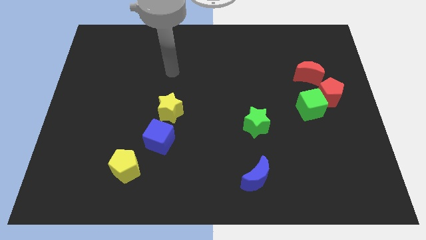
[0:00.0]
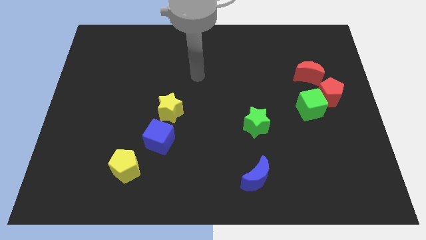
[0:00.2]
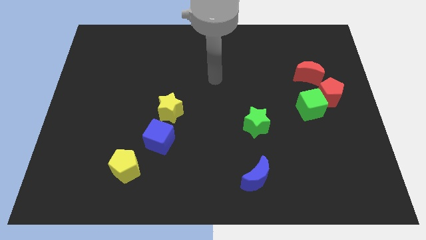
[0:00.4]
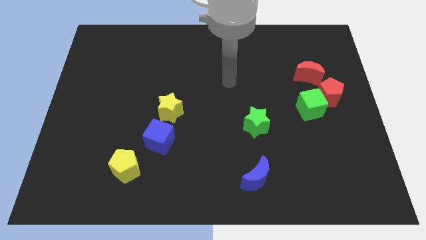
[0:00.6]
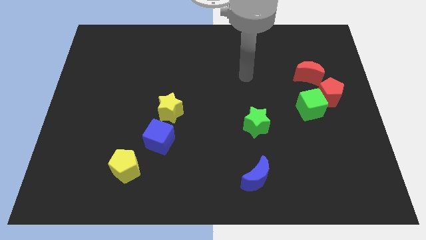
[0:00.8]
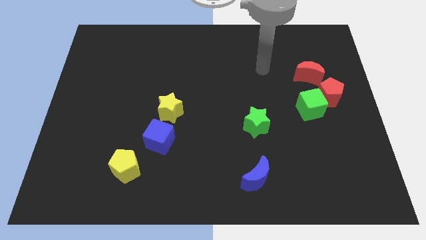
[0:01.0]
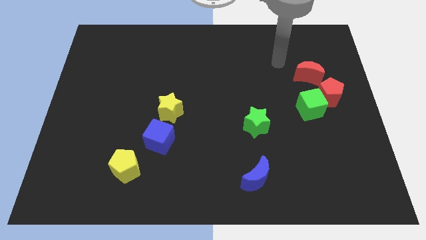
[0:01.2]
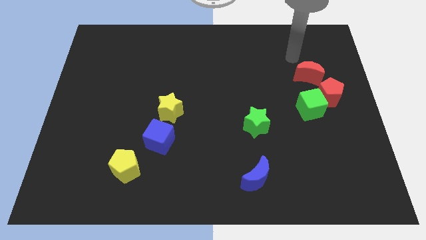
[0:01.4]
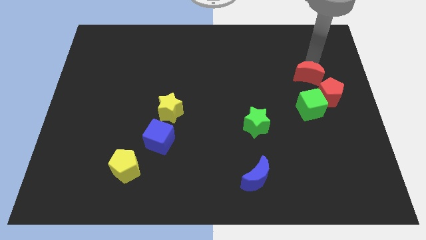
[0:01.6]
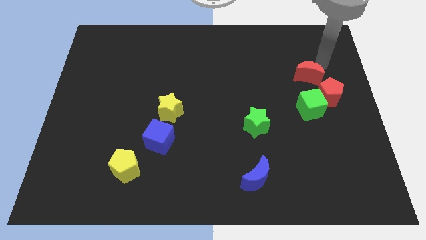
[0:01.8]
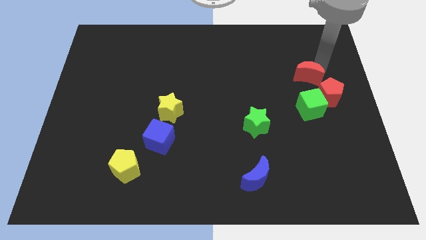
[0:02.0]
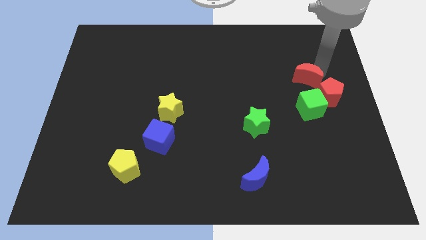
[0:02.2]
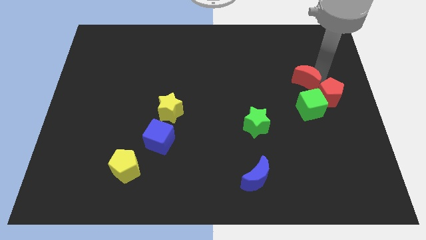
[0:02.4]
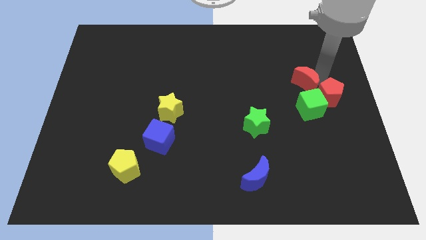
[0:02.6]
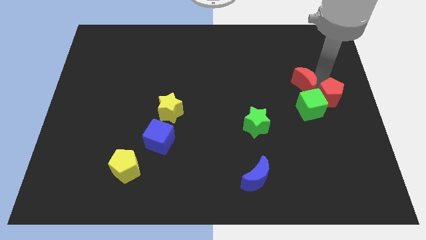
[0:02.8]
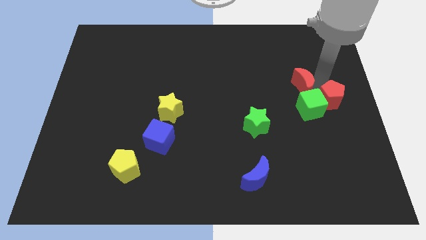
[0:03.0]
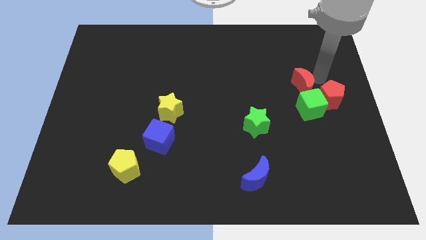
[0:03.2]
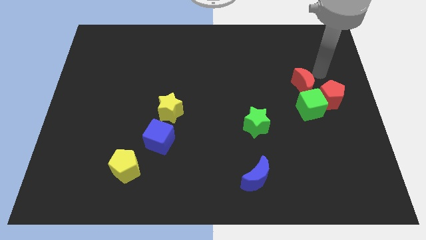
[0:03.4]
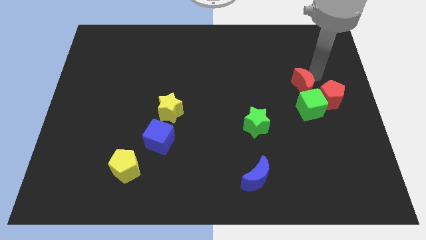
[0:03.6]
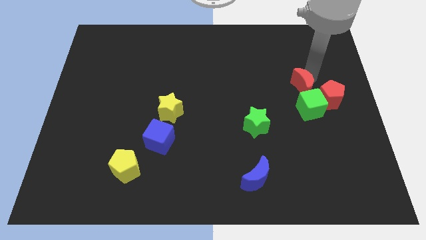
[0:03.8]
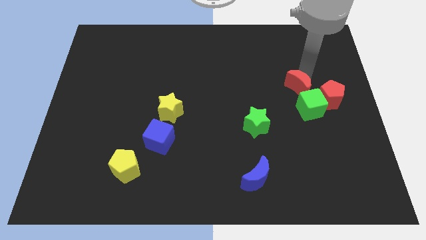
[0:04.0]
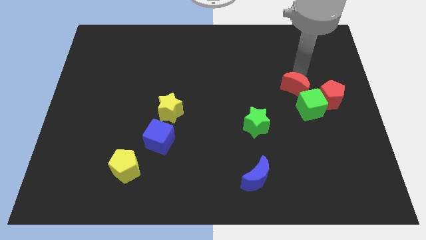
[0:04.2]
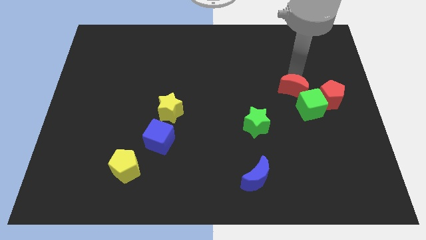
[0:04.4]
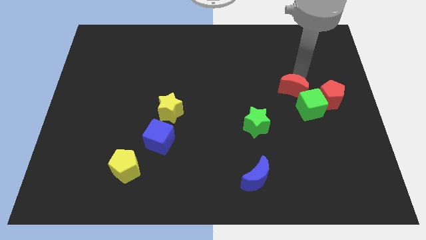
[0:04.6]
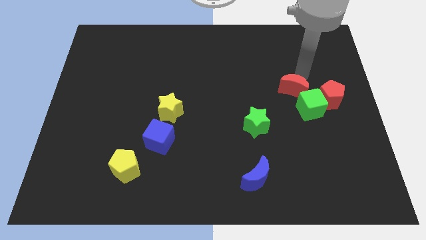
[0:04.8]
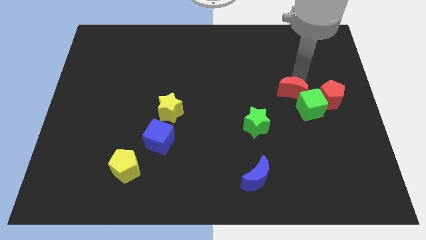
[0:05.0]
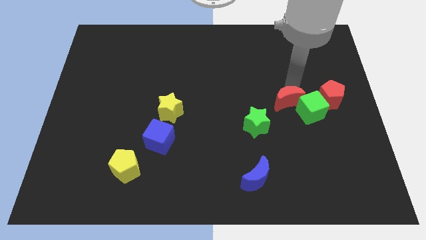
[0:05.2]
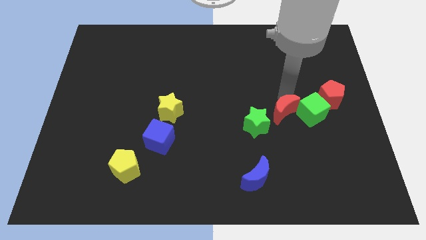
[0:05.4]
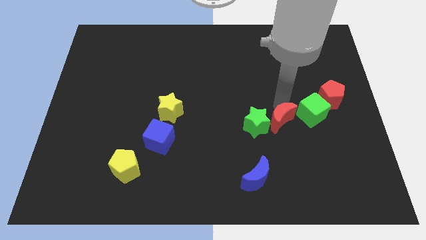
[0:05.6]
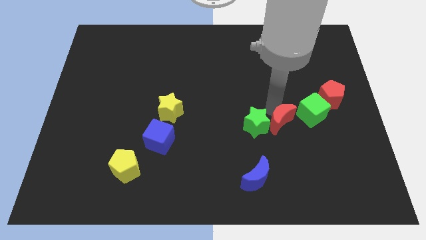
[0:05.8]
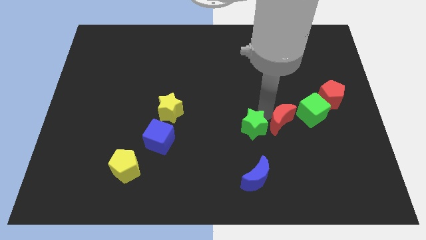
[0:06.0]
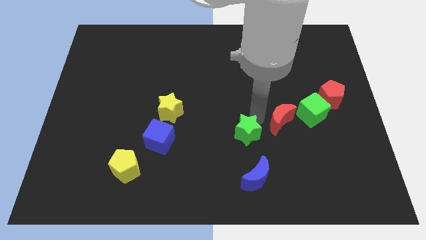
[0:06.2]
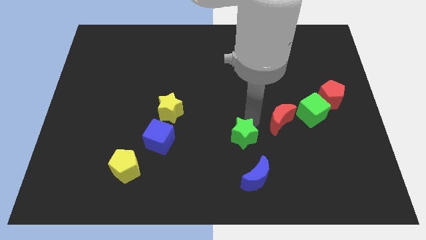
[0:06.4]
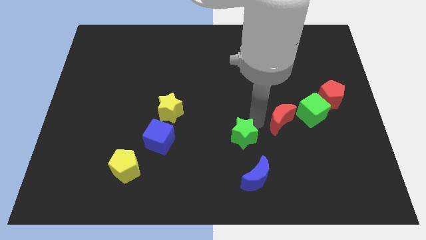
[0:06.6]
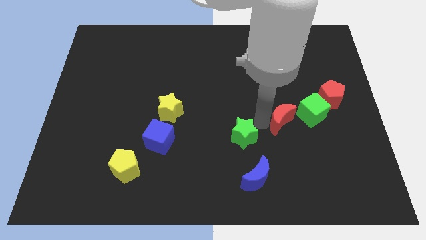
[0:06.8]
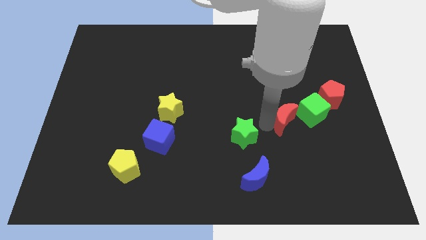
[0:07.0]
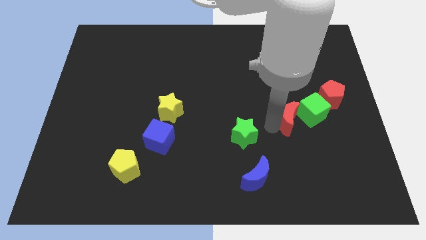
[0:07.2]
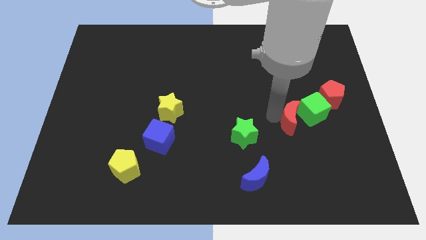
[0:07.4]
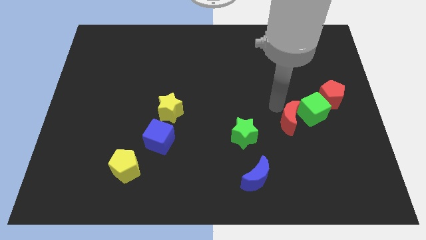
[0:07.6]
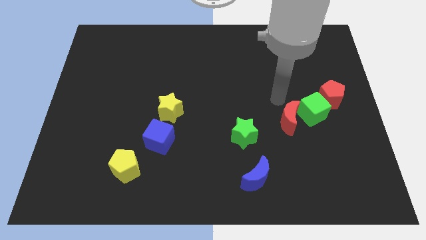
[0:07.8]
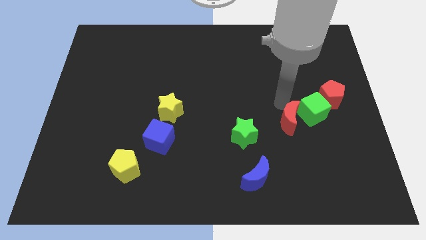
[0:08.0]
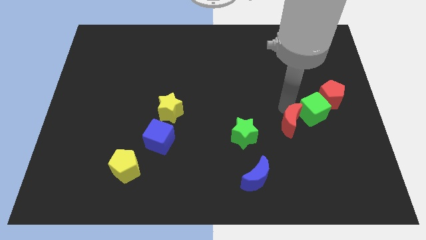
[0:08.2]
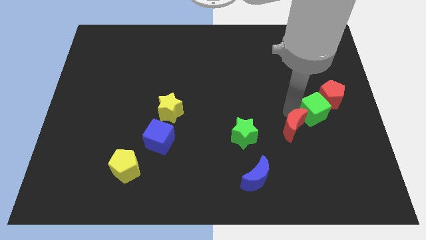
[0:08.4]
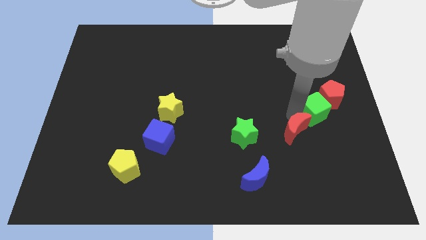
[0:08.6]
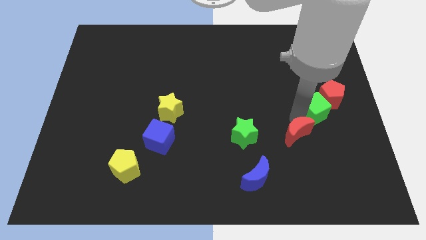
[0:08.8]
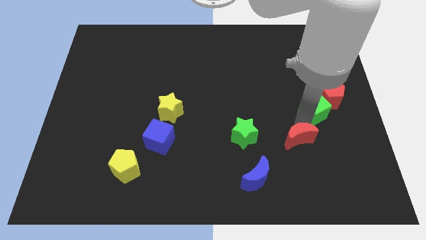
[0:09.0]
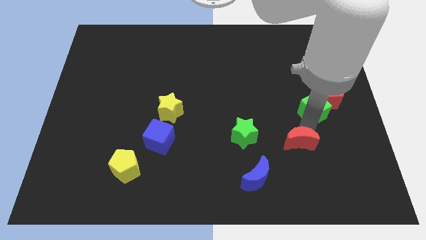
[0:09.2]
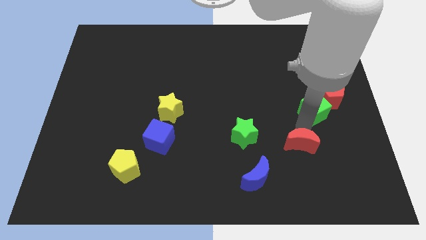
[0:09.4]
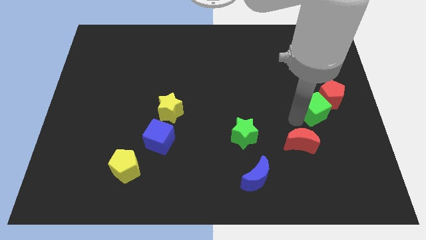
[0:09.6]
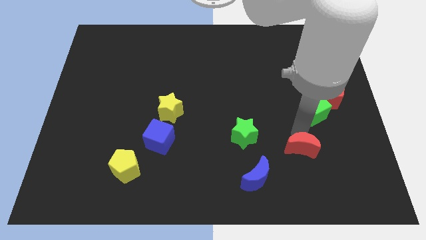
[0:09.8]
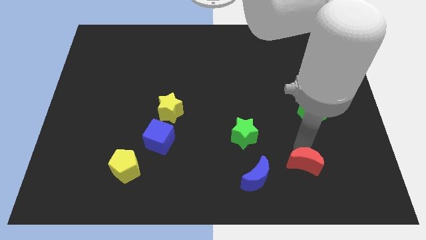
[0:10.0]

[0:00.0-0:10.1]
slide the red moon right of the blue moon

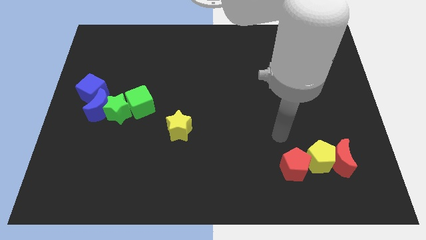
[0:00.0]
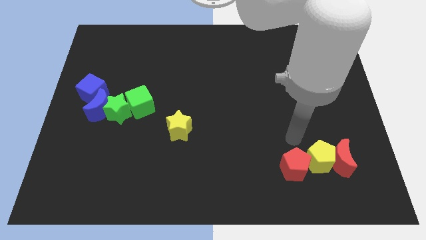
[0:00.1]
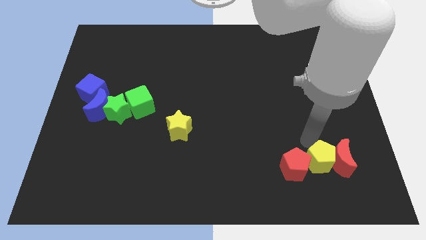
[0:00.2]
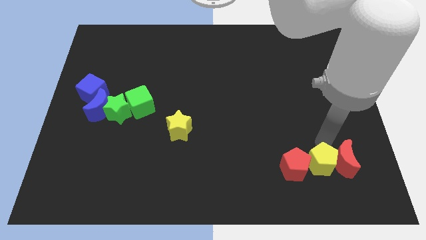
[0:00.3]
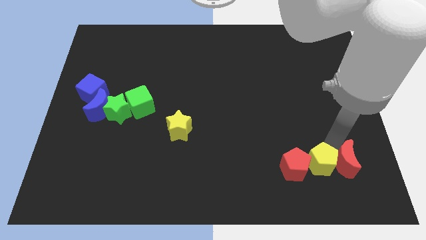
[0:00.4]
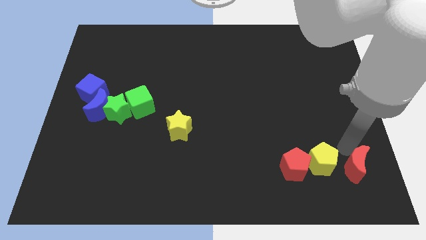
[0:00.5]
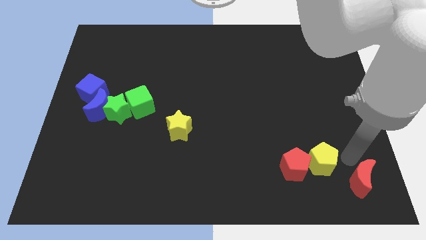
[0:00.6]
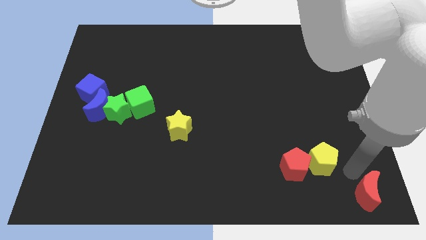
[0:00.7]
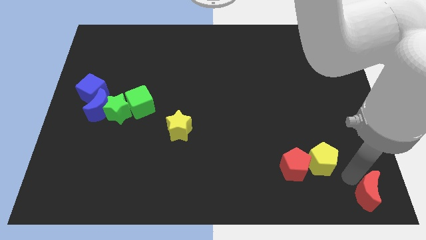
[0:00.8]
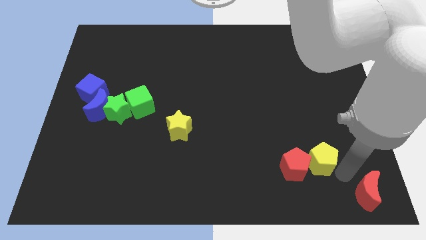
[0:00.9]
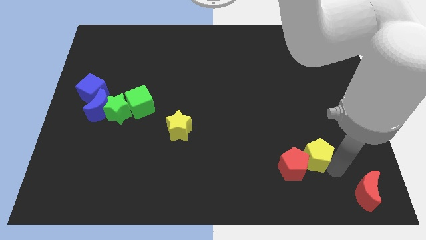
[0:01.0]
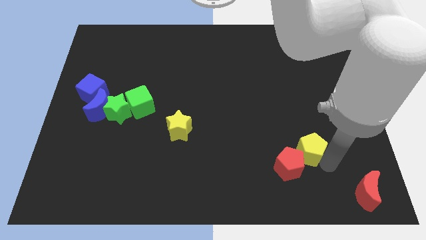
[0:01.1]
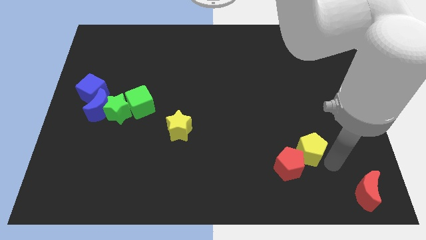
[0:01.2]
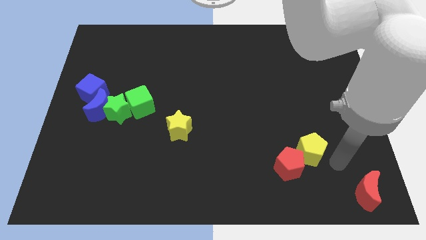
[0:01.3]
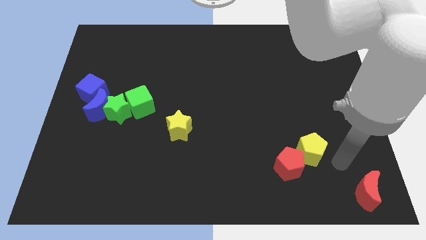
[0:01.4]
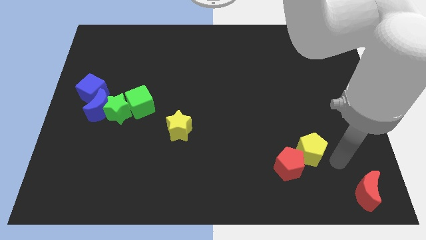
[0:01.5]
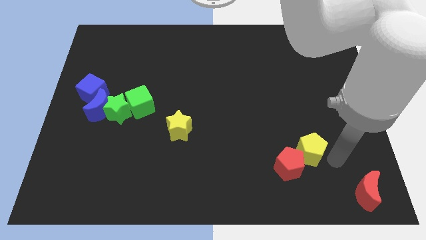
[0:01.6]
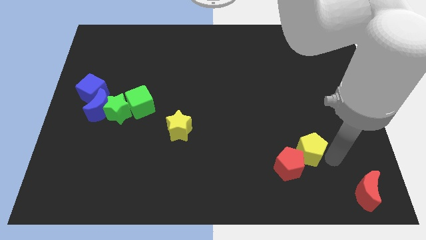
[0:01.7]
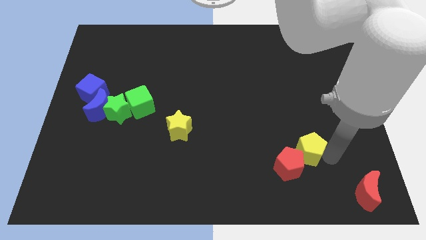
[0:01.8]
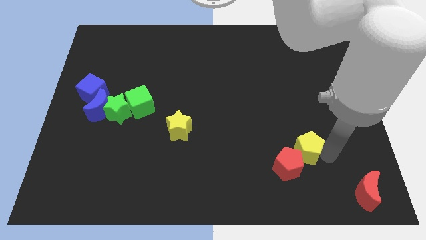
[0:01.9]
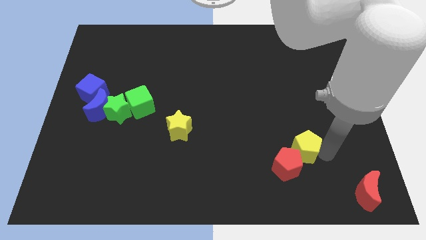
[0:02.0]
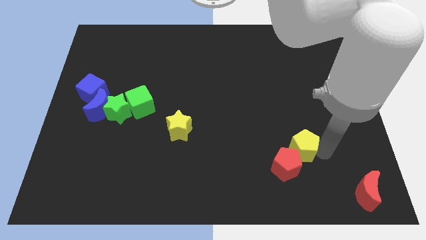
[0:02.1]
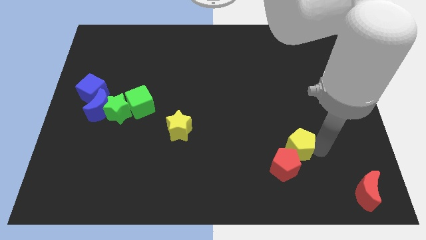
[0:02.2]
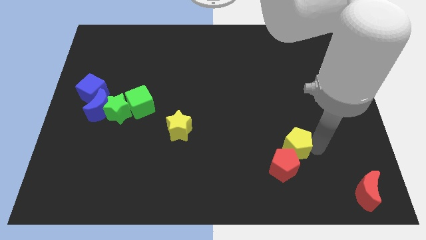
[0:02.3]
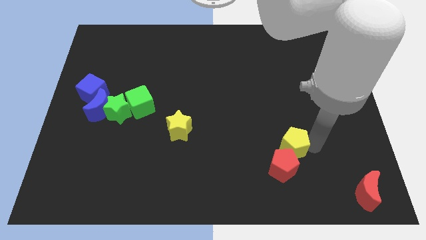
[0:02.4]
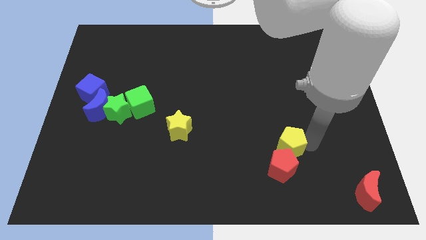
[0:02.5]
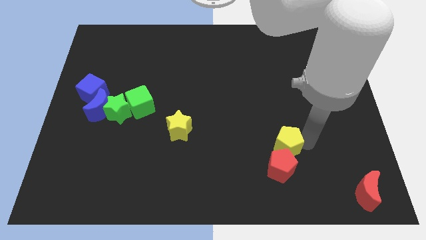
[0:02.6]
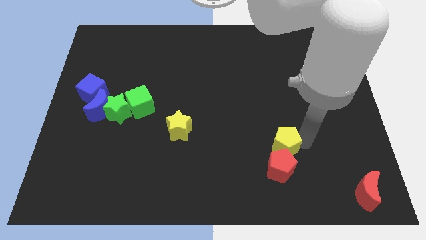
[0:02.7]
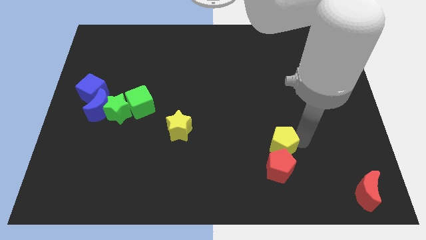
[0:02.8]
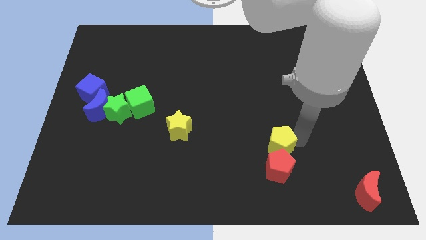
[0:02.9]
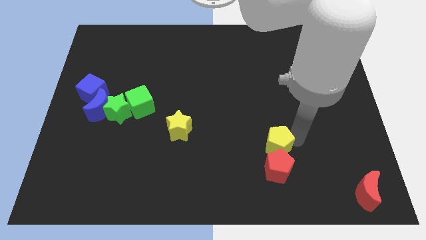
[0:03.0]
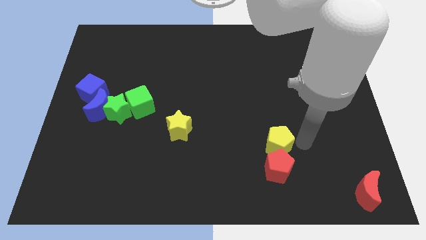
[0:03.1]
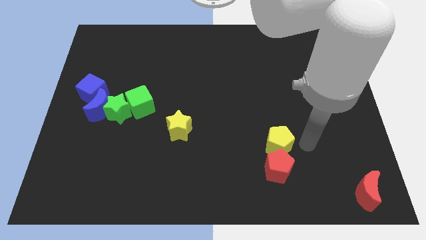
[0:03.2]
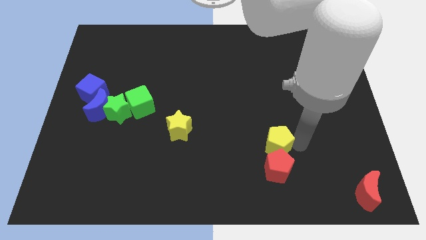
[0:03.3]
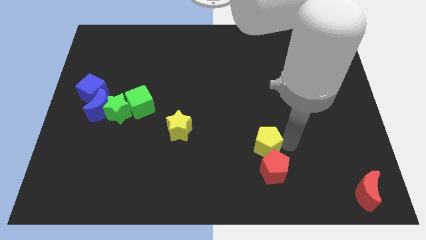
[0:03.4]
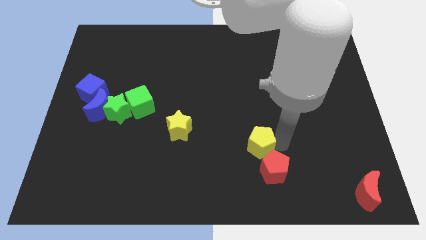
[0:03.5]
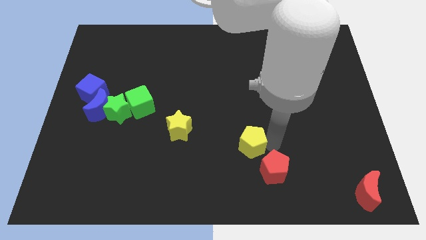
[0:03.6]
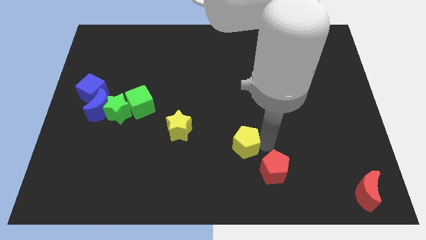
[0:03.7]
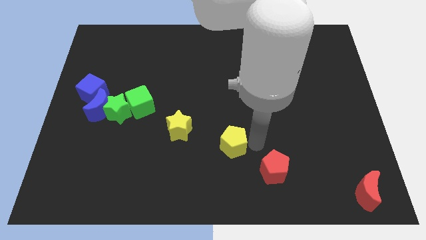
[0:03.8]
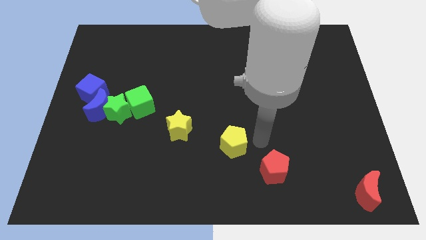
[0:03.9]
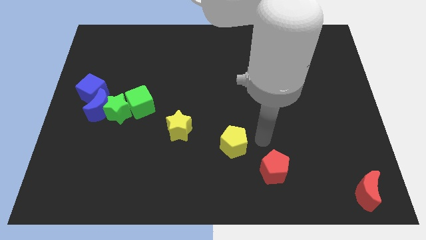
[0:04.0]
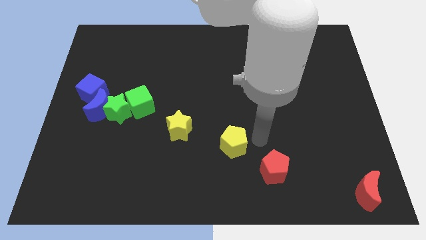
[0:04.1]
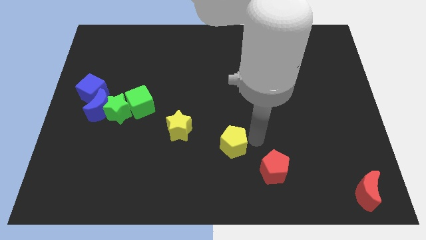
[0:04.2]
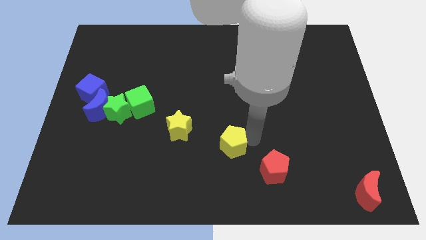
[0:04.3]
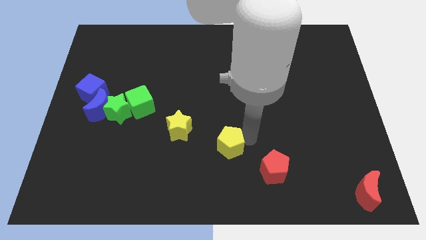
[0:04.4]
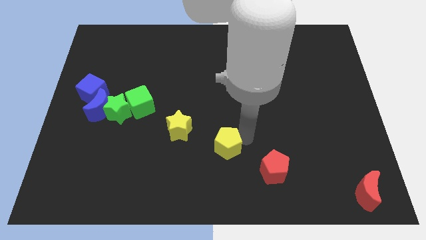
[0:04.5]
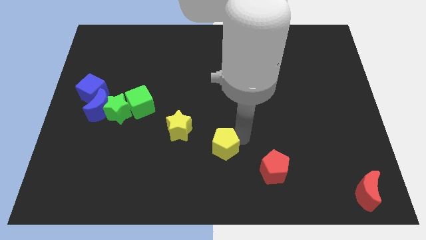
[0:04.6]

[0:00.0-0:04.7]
push the yellow pentagon to the bottom right of the yellow star
